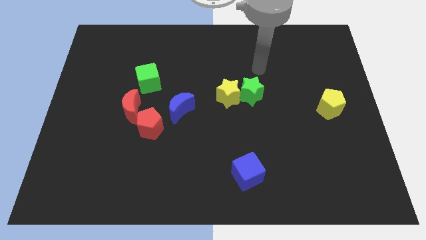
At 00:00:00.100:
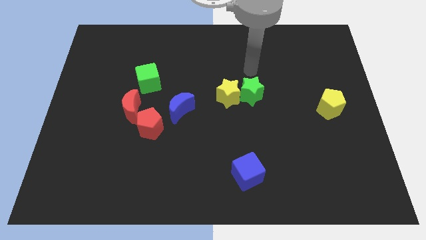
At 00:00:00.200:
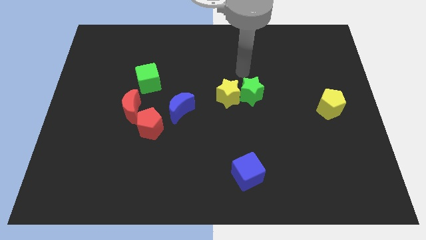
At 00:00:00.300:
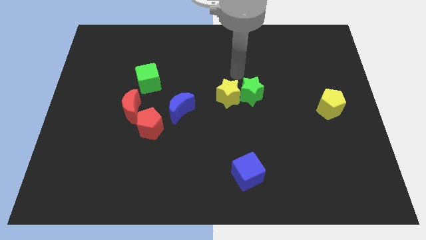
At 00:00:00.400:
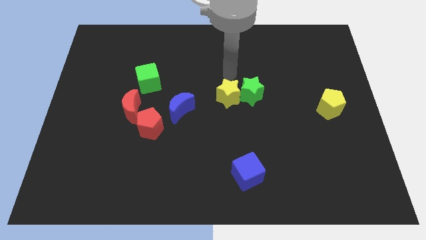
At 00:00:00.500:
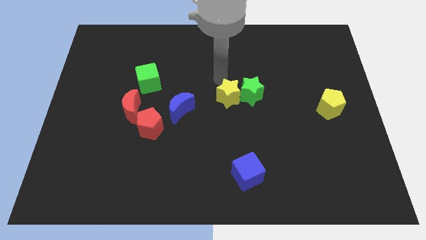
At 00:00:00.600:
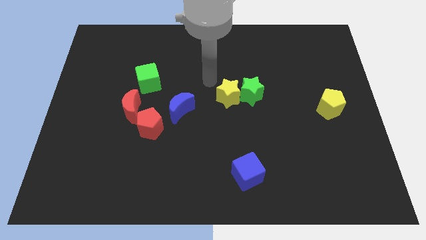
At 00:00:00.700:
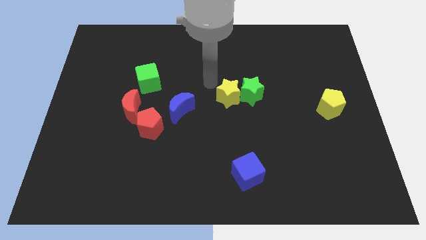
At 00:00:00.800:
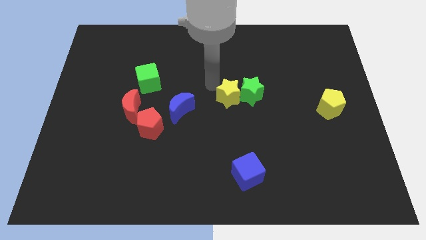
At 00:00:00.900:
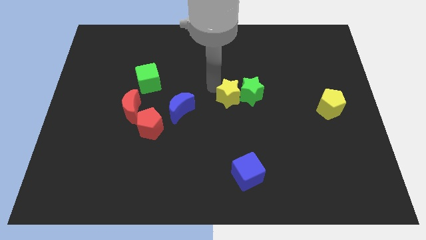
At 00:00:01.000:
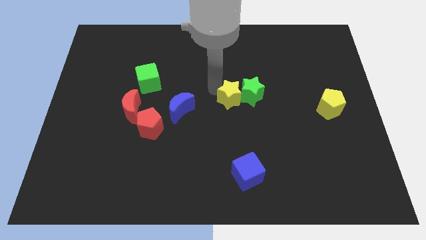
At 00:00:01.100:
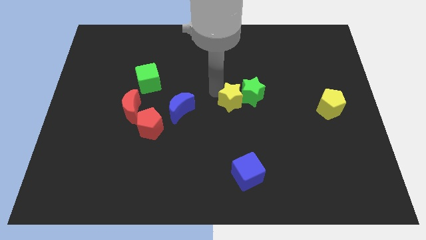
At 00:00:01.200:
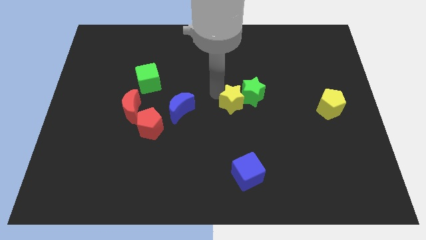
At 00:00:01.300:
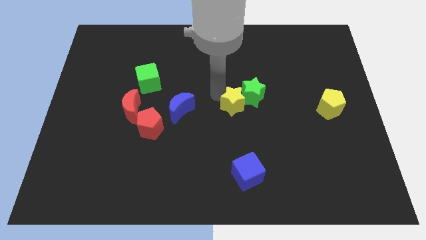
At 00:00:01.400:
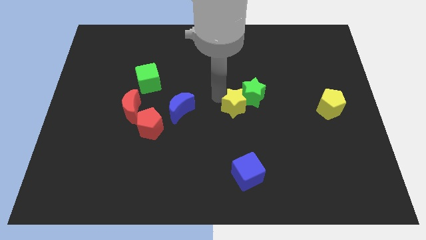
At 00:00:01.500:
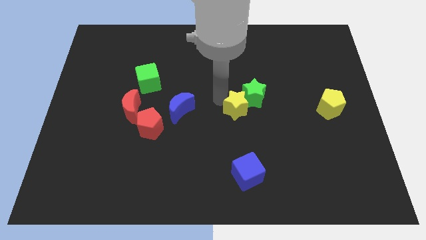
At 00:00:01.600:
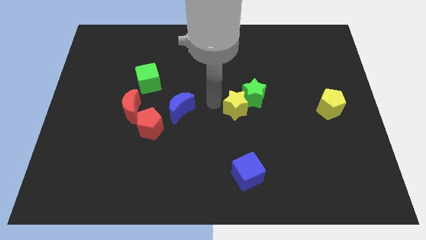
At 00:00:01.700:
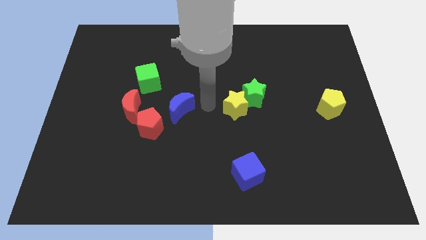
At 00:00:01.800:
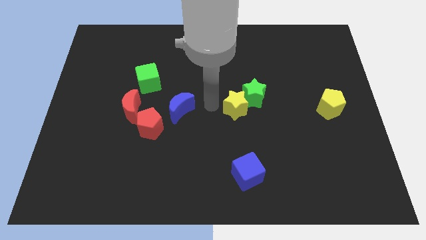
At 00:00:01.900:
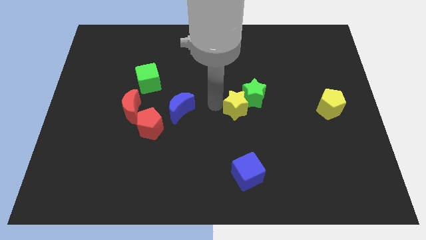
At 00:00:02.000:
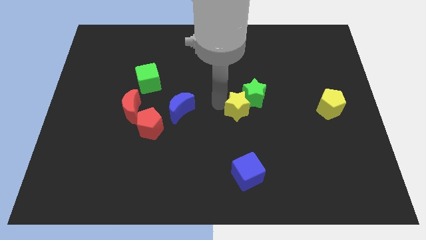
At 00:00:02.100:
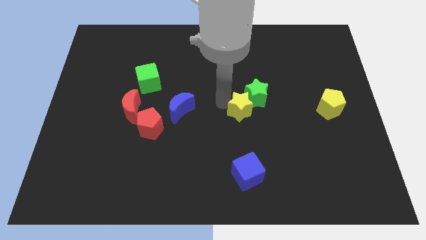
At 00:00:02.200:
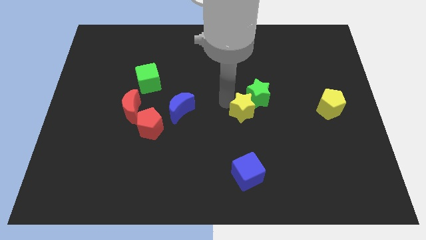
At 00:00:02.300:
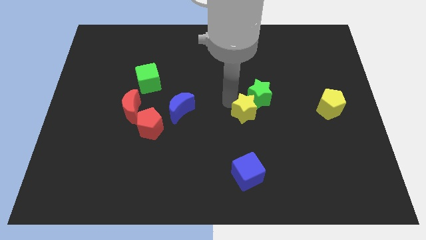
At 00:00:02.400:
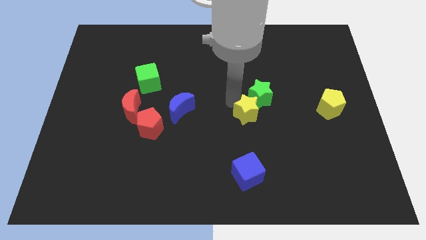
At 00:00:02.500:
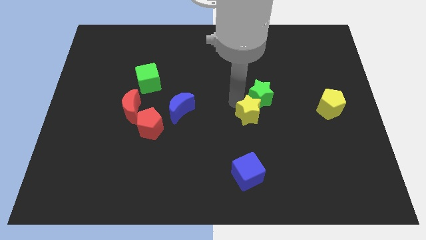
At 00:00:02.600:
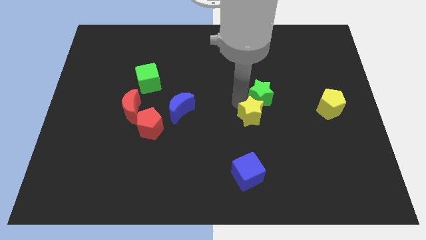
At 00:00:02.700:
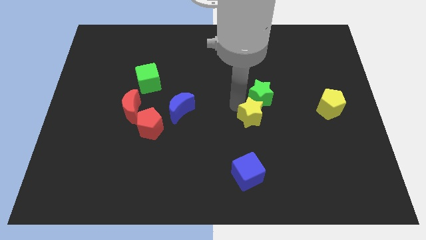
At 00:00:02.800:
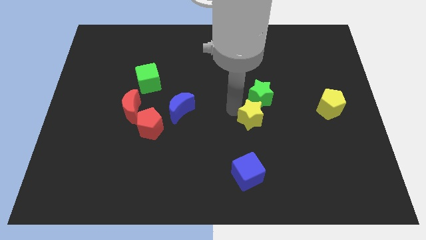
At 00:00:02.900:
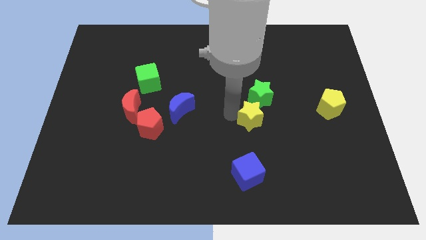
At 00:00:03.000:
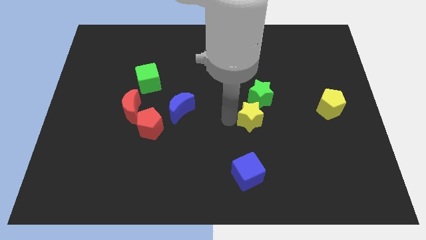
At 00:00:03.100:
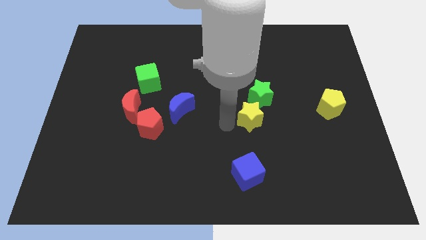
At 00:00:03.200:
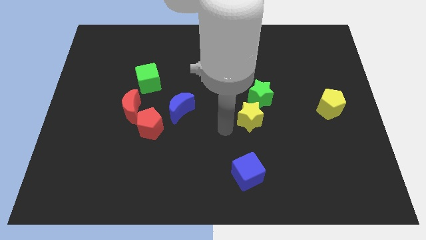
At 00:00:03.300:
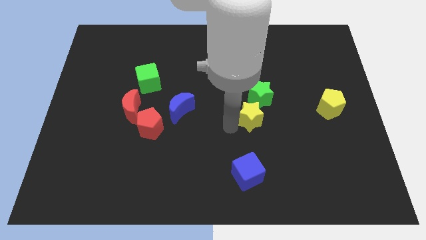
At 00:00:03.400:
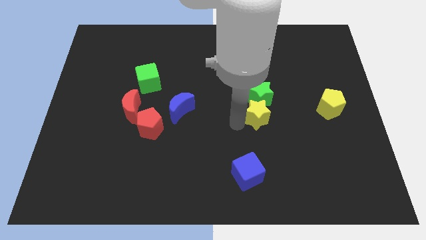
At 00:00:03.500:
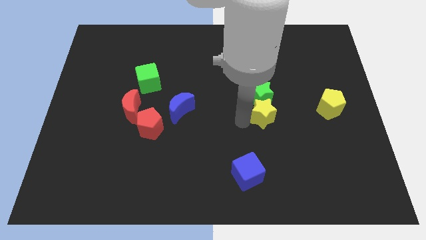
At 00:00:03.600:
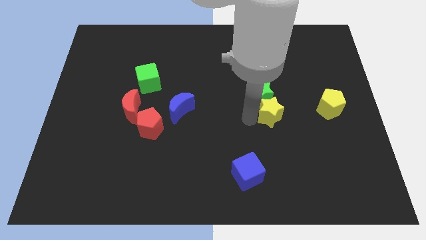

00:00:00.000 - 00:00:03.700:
push the yellow star right a little bit

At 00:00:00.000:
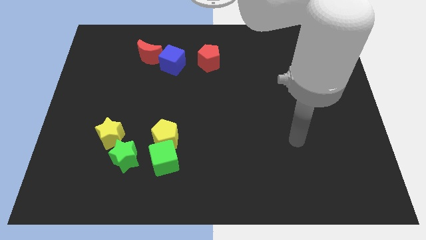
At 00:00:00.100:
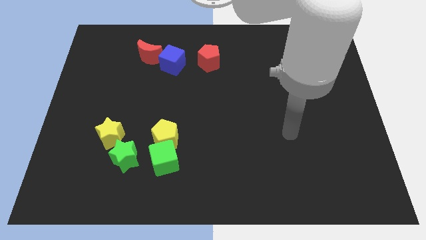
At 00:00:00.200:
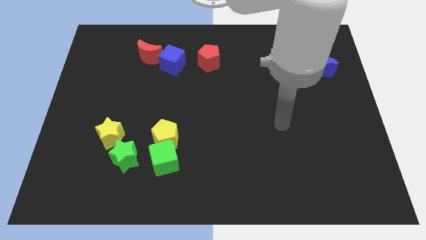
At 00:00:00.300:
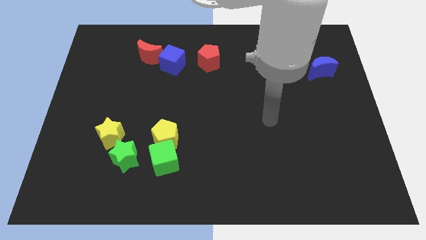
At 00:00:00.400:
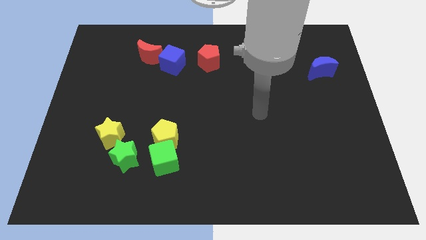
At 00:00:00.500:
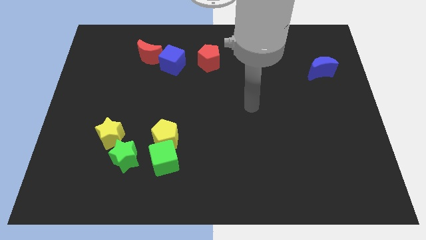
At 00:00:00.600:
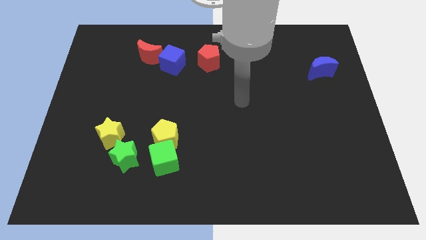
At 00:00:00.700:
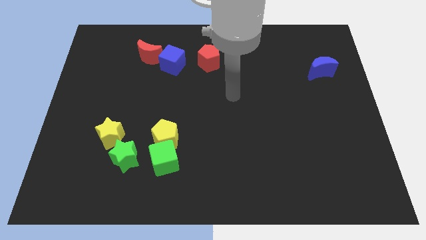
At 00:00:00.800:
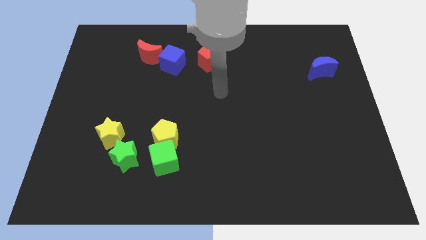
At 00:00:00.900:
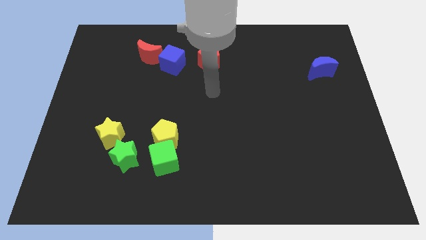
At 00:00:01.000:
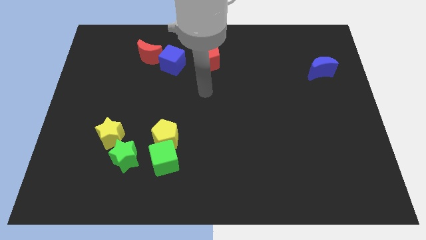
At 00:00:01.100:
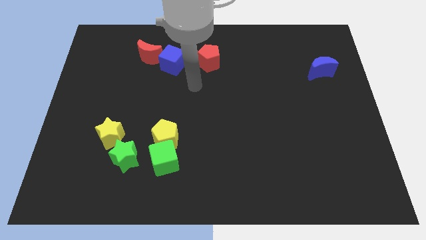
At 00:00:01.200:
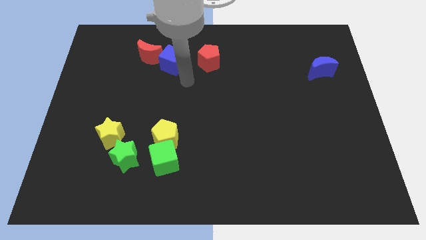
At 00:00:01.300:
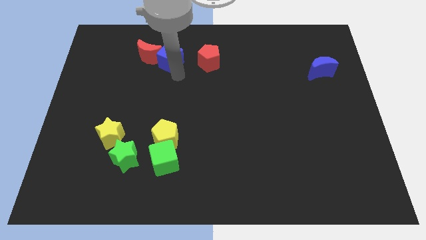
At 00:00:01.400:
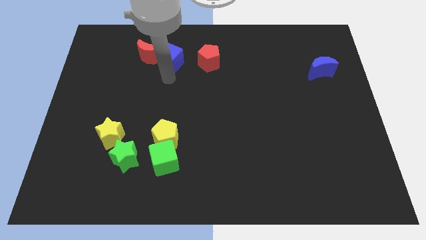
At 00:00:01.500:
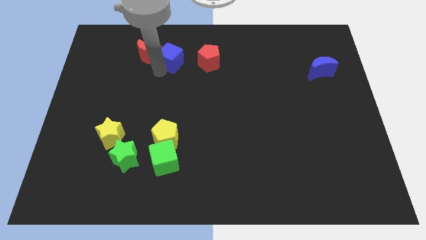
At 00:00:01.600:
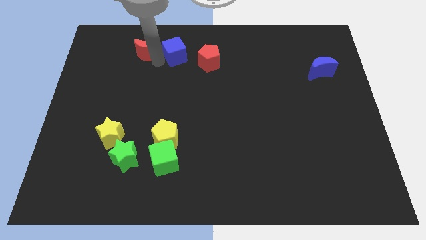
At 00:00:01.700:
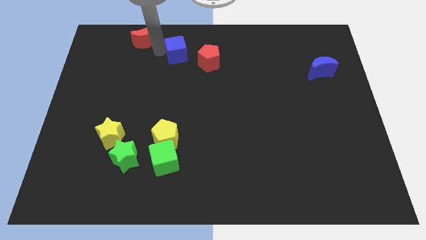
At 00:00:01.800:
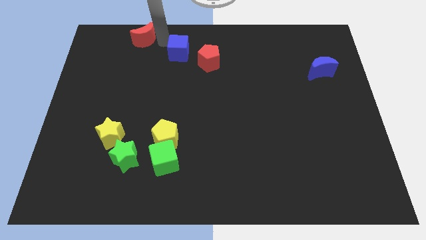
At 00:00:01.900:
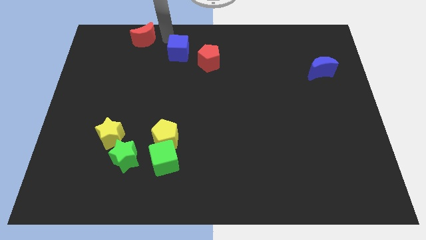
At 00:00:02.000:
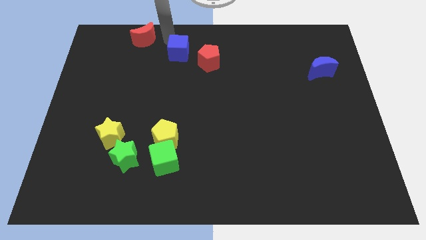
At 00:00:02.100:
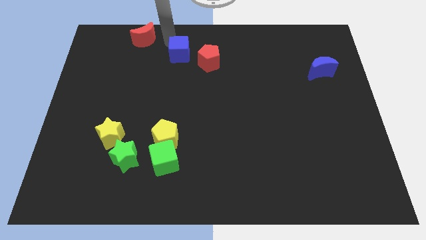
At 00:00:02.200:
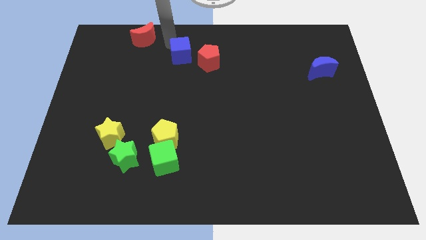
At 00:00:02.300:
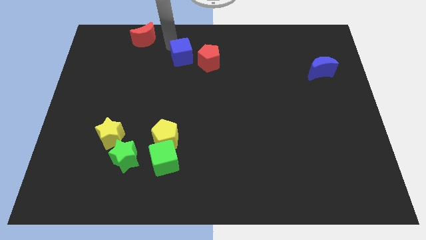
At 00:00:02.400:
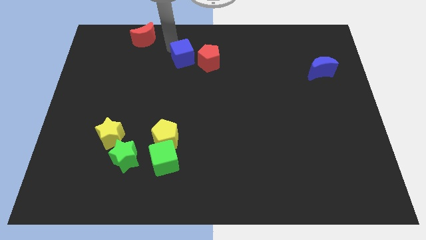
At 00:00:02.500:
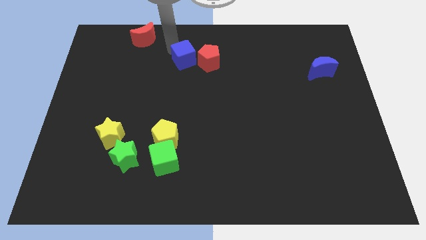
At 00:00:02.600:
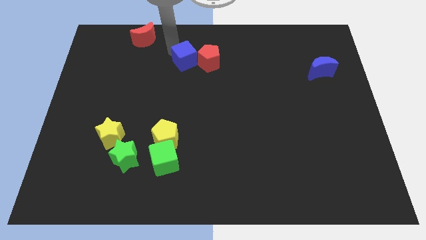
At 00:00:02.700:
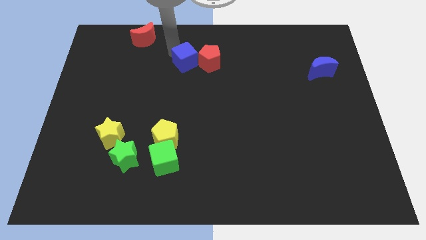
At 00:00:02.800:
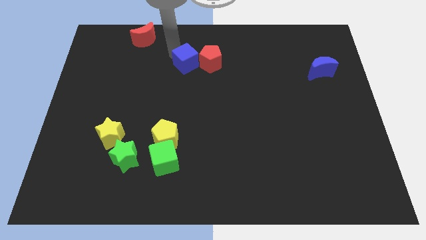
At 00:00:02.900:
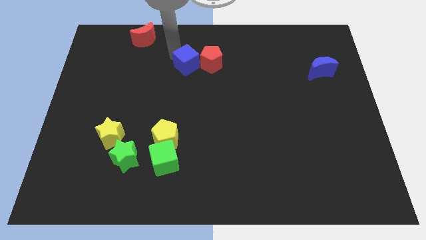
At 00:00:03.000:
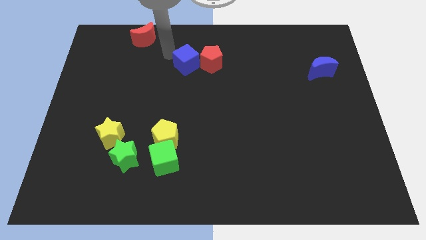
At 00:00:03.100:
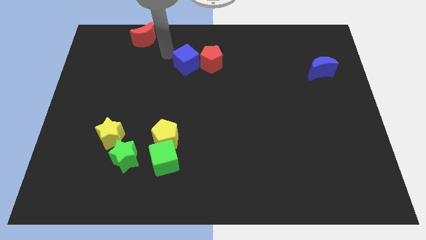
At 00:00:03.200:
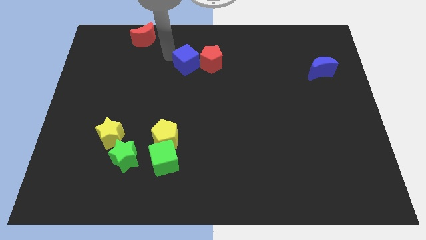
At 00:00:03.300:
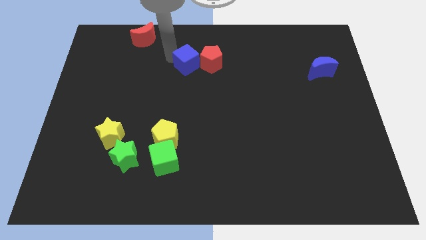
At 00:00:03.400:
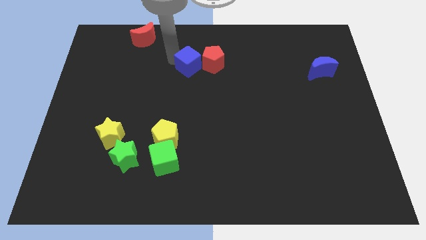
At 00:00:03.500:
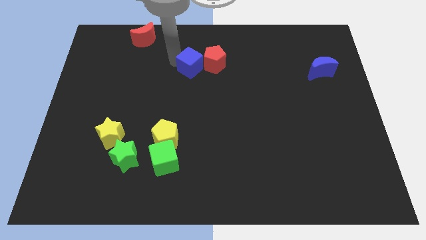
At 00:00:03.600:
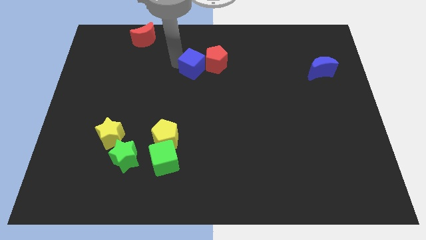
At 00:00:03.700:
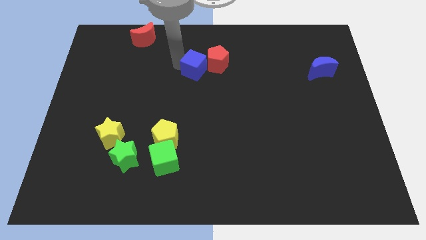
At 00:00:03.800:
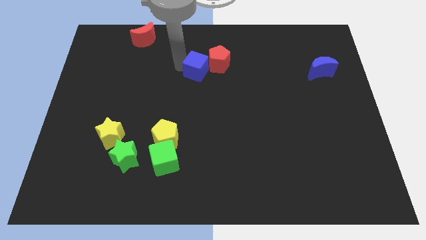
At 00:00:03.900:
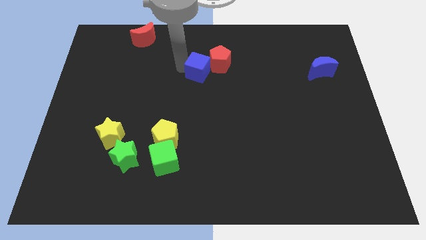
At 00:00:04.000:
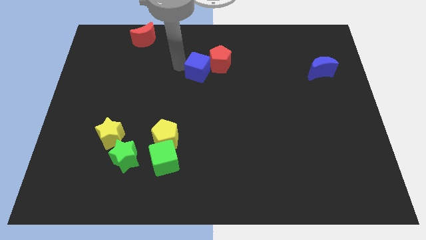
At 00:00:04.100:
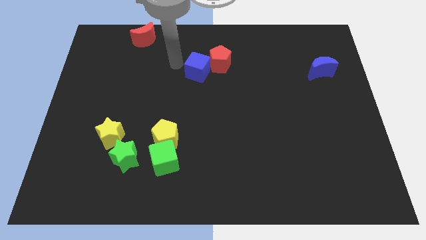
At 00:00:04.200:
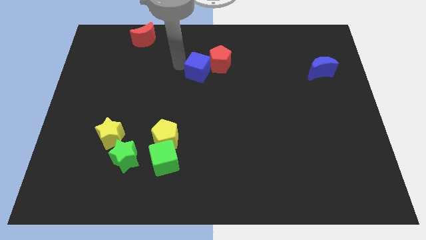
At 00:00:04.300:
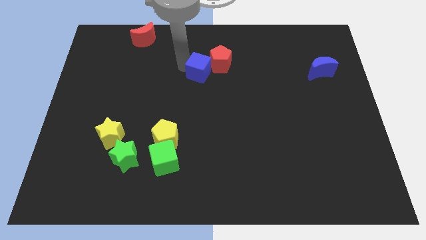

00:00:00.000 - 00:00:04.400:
move the blue cube somewhat to the right
